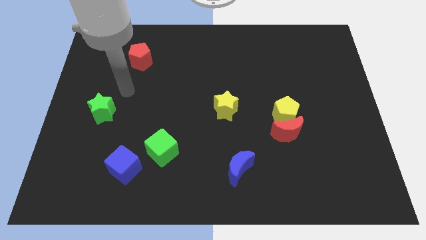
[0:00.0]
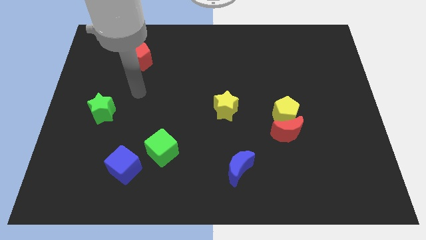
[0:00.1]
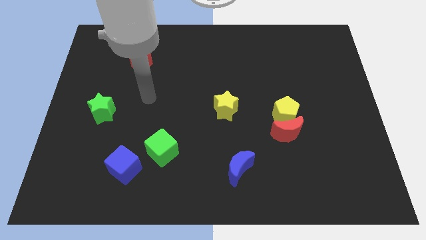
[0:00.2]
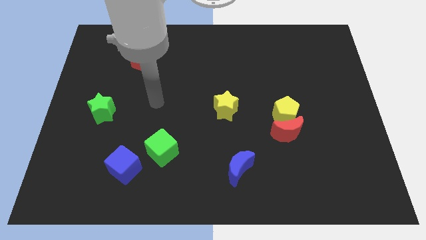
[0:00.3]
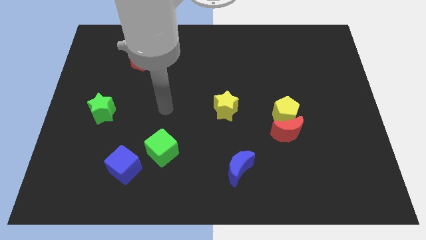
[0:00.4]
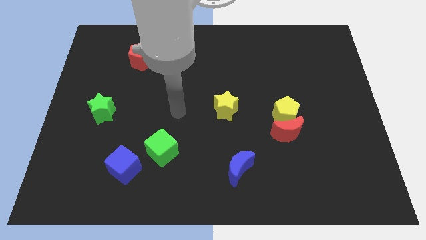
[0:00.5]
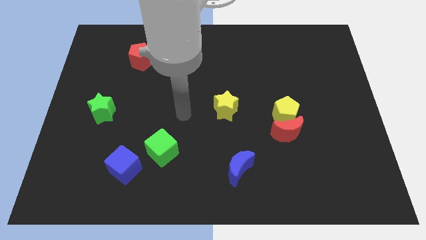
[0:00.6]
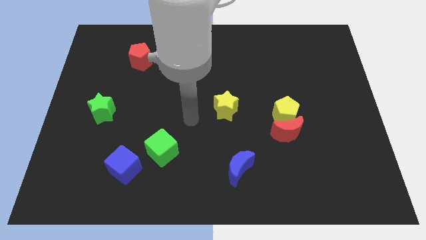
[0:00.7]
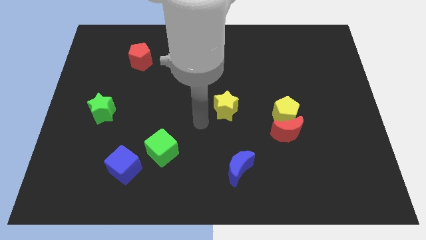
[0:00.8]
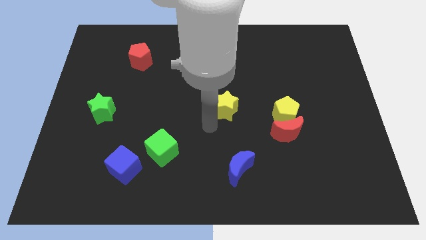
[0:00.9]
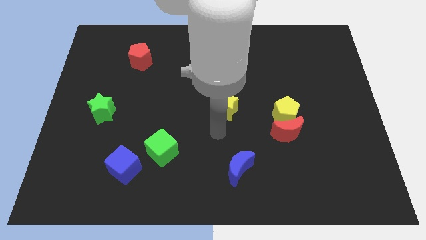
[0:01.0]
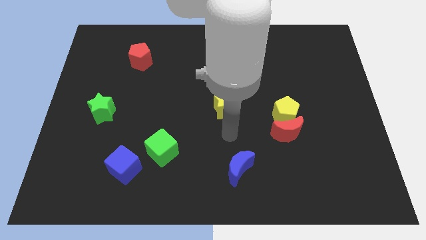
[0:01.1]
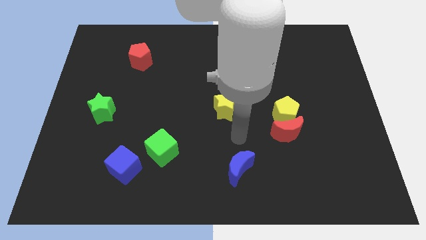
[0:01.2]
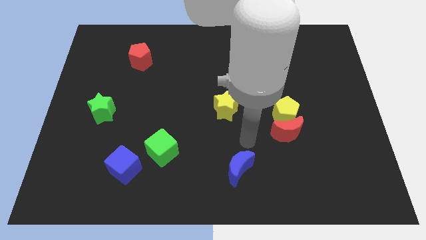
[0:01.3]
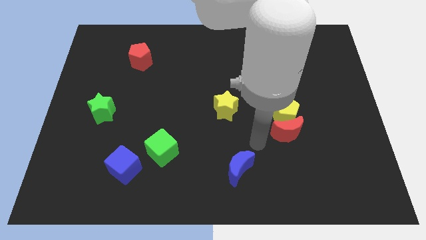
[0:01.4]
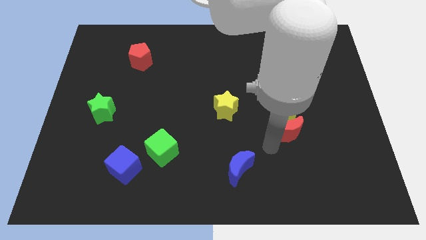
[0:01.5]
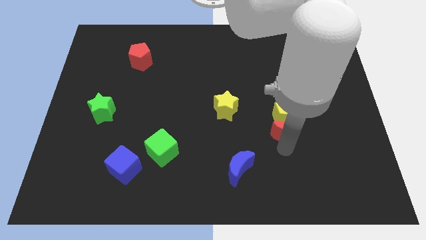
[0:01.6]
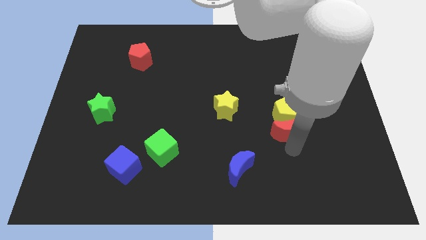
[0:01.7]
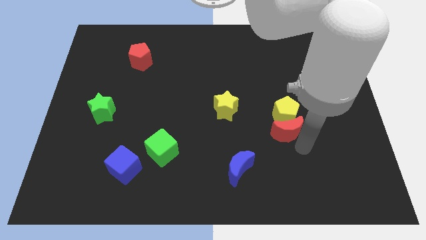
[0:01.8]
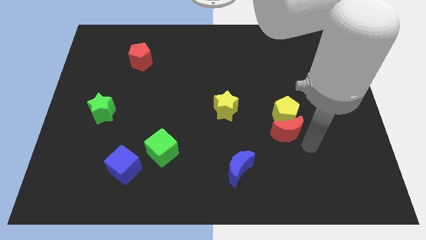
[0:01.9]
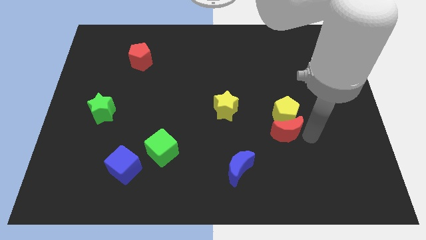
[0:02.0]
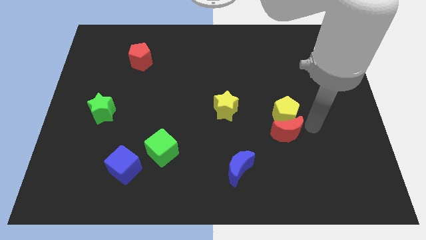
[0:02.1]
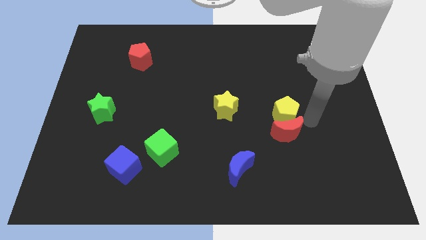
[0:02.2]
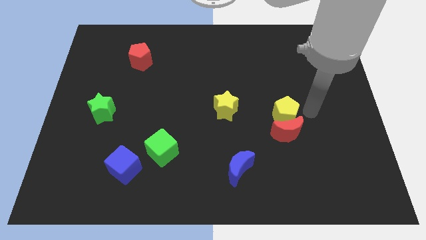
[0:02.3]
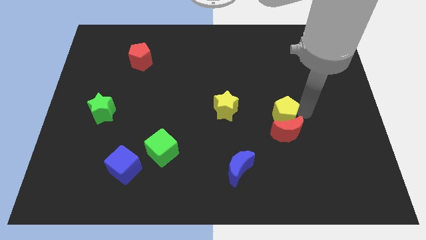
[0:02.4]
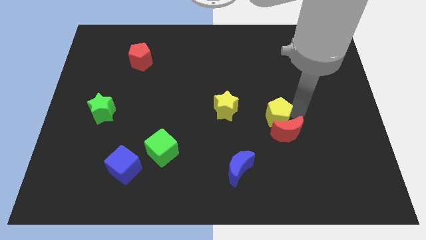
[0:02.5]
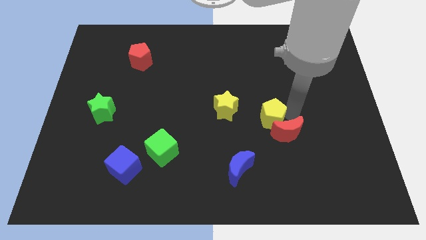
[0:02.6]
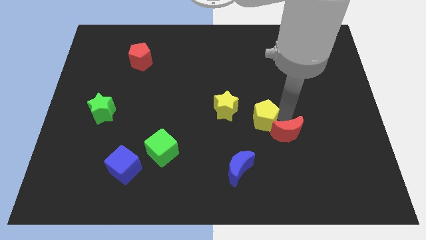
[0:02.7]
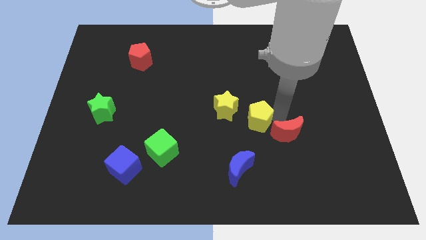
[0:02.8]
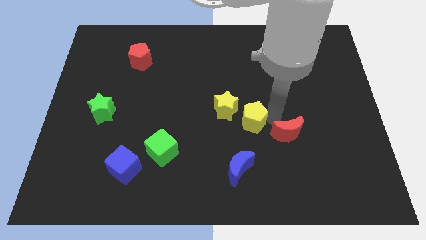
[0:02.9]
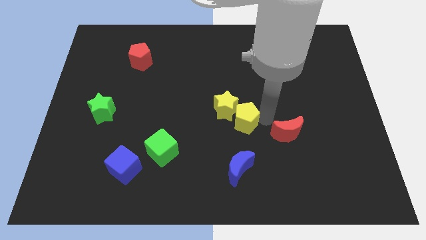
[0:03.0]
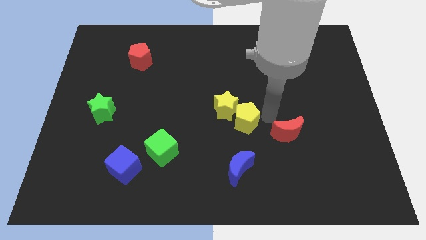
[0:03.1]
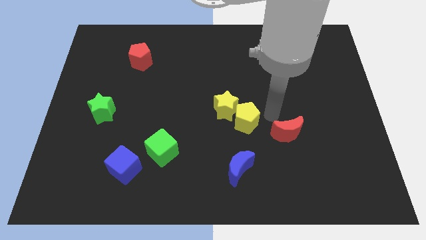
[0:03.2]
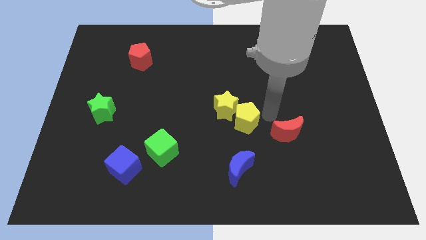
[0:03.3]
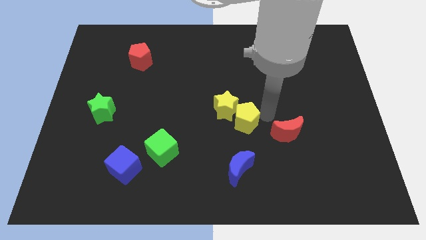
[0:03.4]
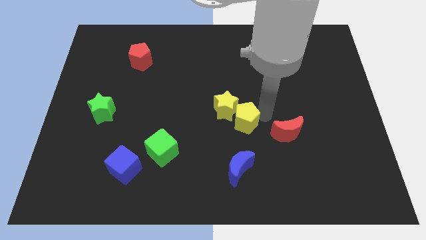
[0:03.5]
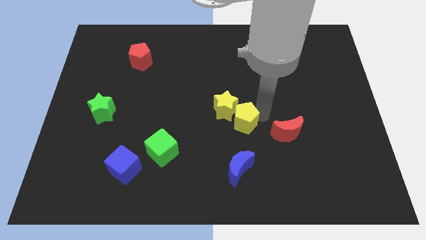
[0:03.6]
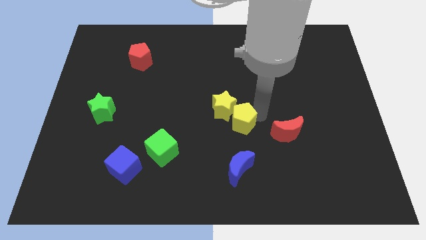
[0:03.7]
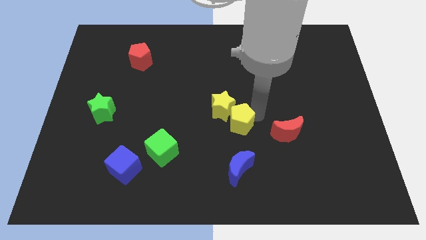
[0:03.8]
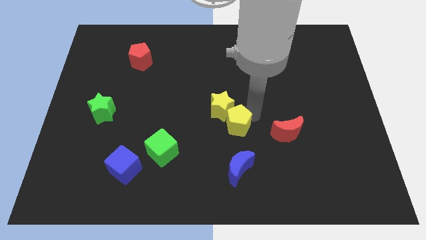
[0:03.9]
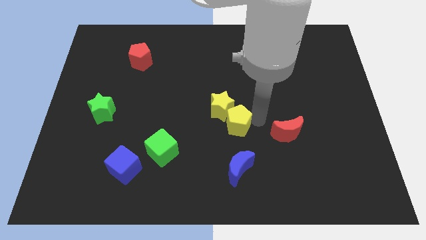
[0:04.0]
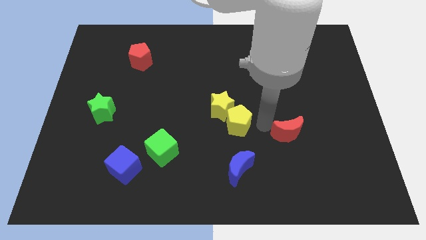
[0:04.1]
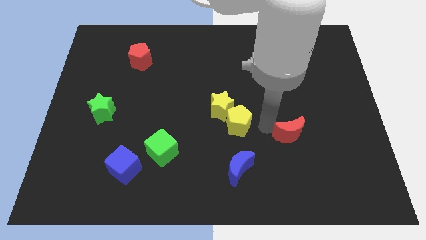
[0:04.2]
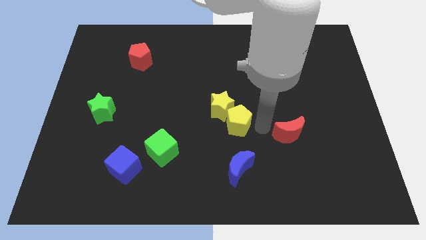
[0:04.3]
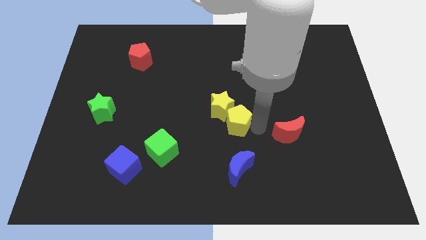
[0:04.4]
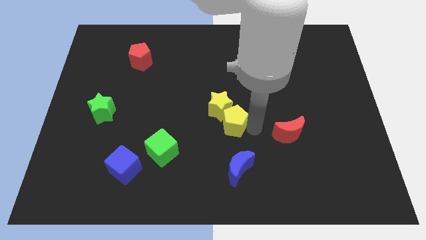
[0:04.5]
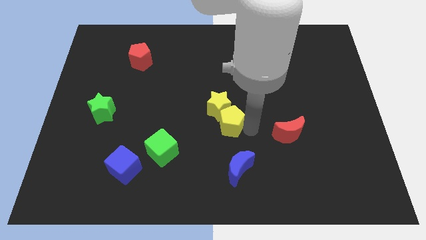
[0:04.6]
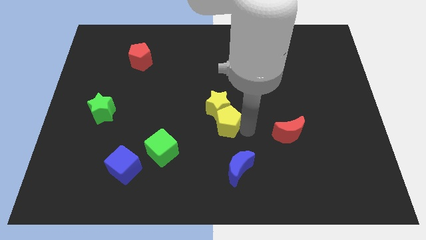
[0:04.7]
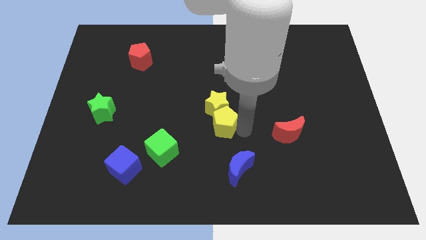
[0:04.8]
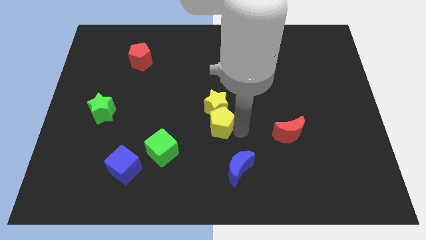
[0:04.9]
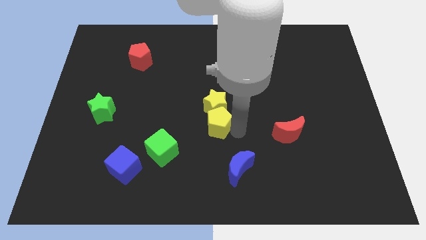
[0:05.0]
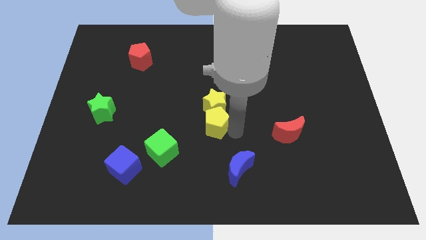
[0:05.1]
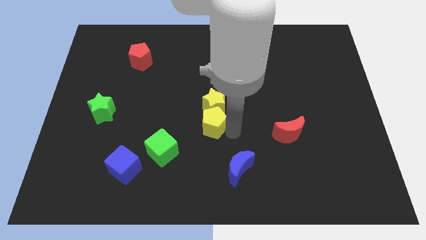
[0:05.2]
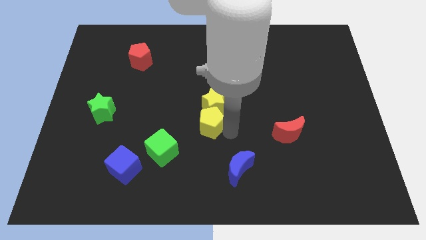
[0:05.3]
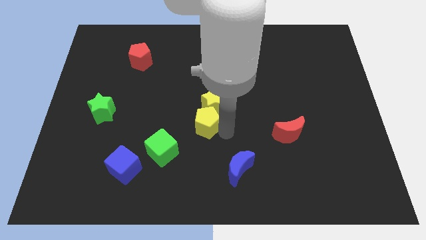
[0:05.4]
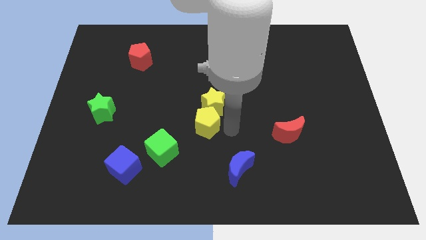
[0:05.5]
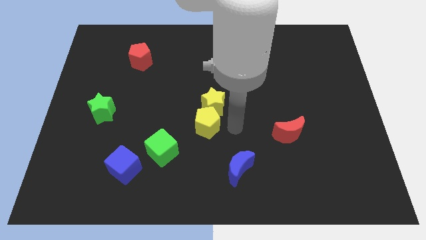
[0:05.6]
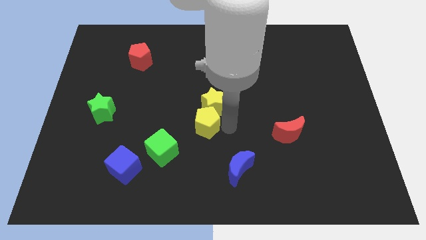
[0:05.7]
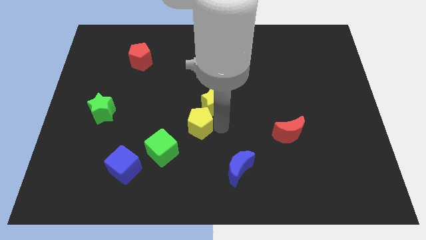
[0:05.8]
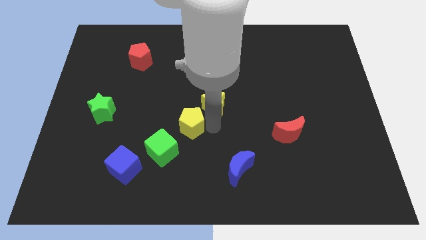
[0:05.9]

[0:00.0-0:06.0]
slide the yellow pentagon to the left

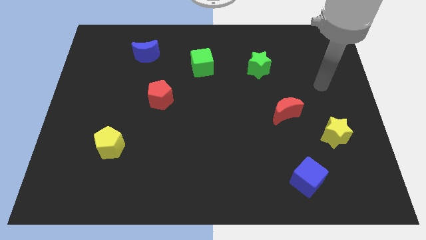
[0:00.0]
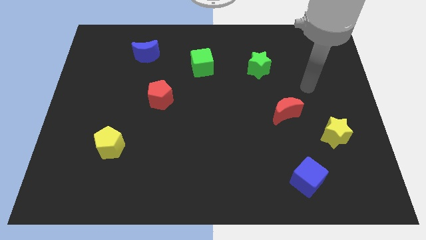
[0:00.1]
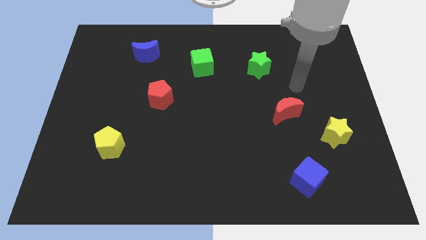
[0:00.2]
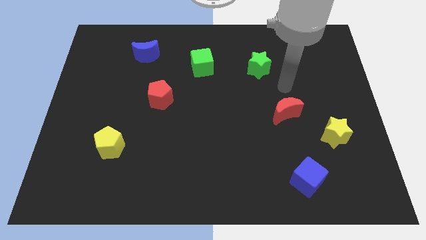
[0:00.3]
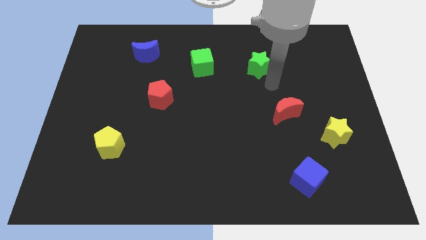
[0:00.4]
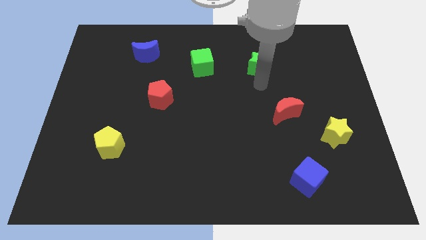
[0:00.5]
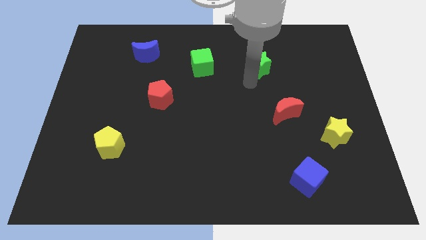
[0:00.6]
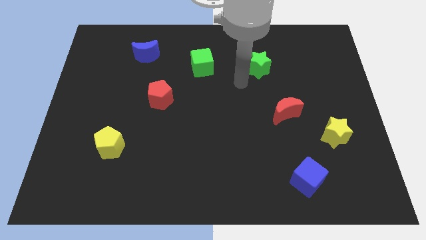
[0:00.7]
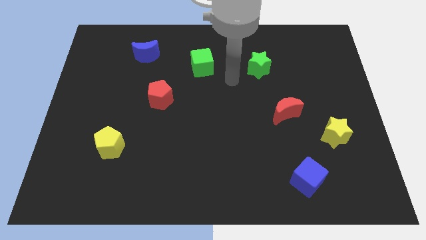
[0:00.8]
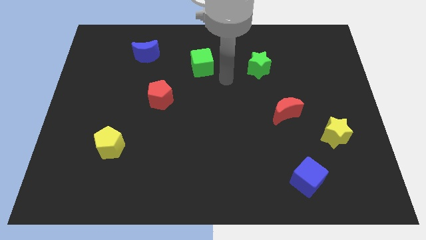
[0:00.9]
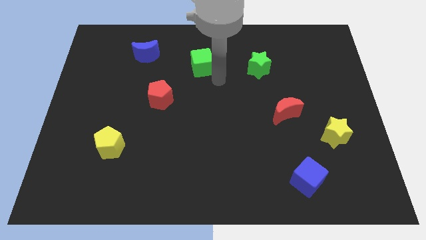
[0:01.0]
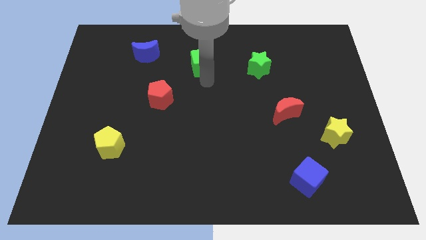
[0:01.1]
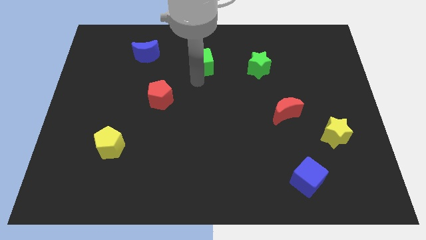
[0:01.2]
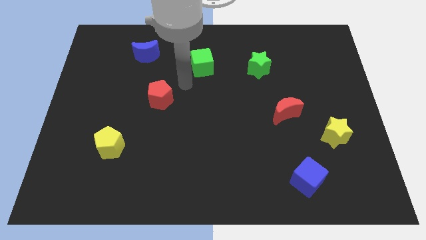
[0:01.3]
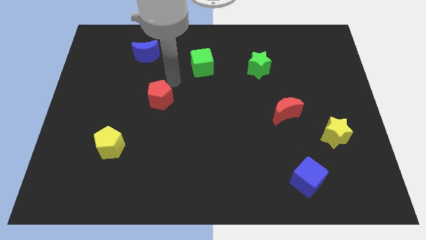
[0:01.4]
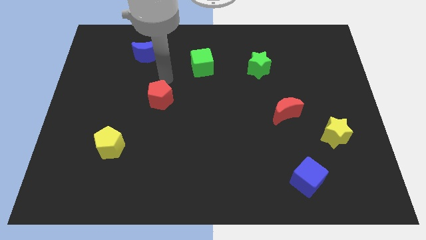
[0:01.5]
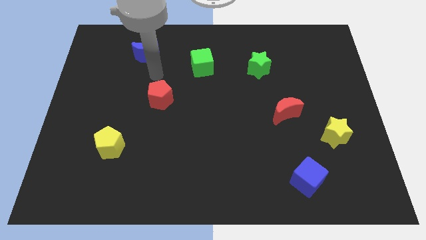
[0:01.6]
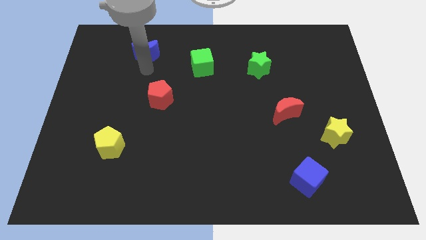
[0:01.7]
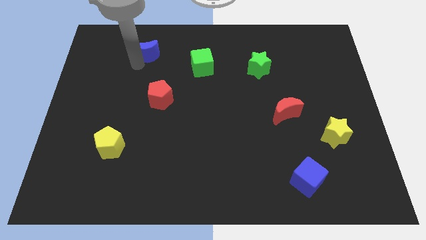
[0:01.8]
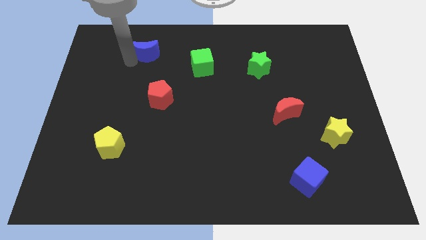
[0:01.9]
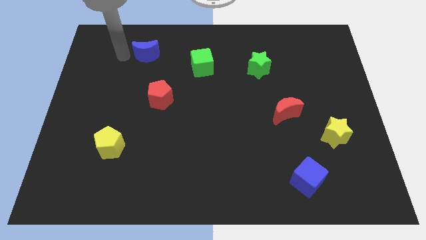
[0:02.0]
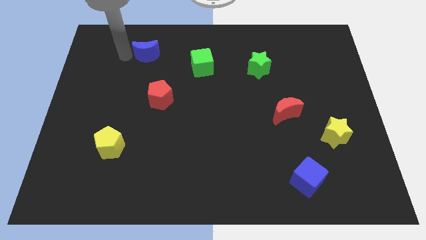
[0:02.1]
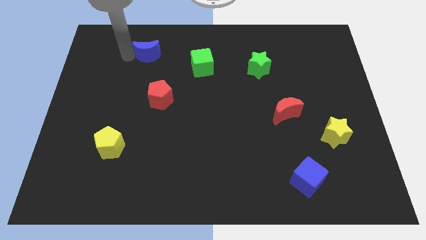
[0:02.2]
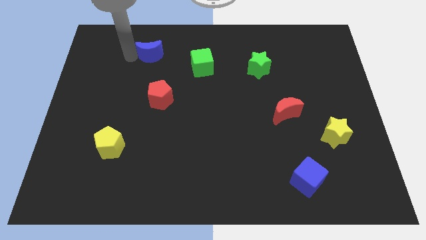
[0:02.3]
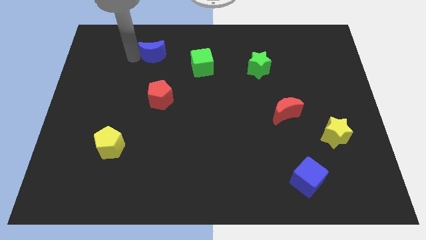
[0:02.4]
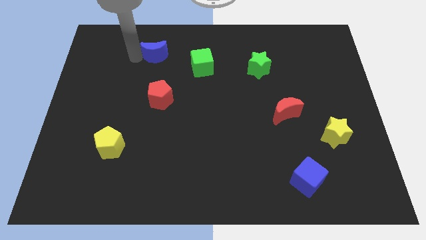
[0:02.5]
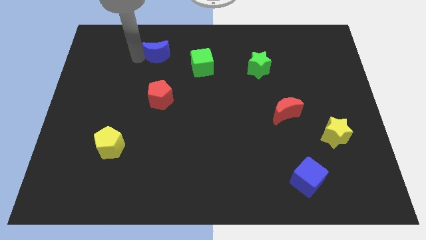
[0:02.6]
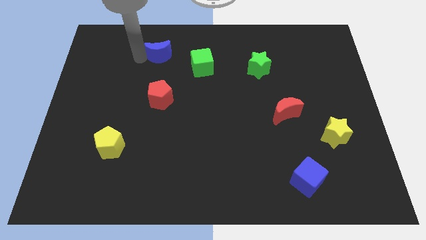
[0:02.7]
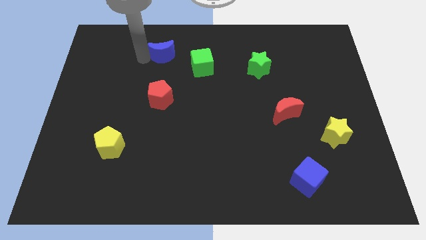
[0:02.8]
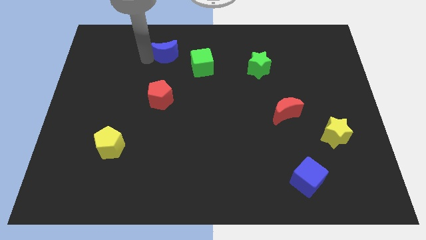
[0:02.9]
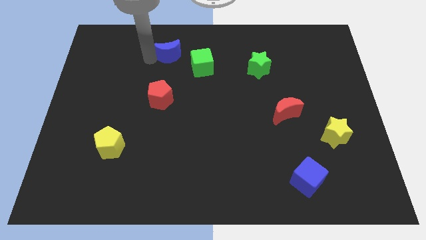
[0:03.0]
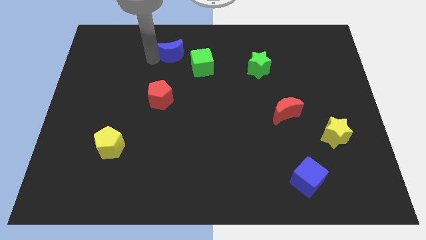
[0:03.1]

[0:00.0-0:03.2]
push the blue moon right a little
